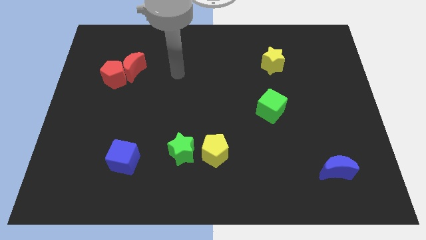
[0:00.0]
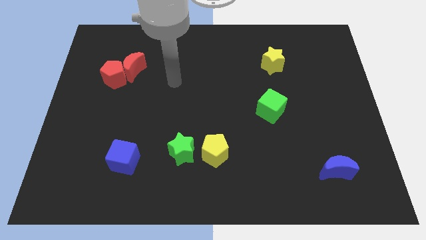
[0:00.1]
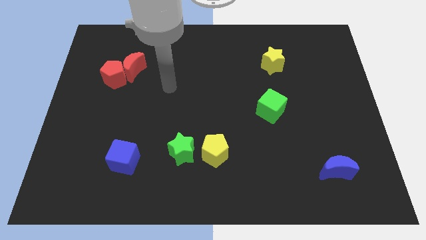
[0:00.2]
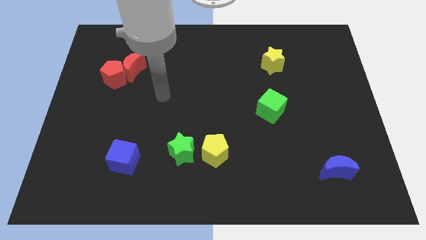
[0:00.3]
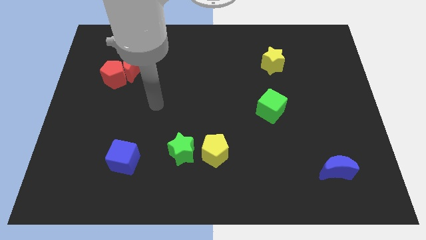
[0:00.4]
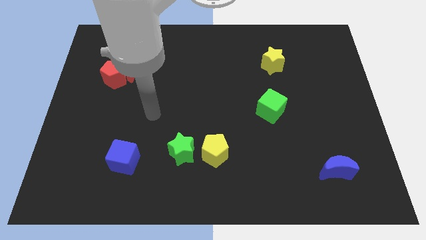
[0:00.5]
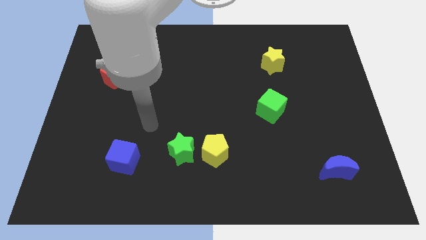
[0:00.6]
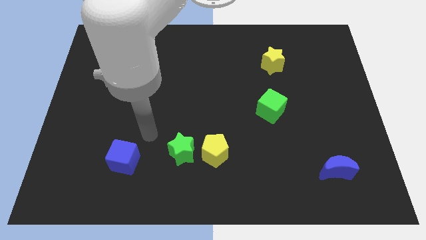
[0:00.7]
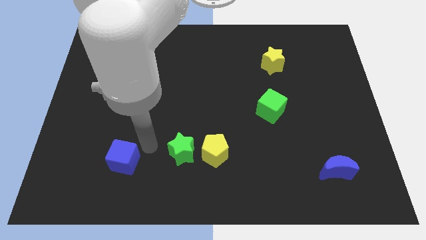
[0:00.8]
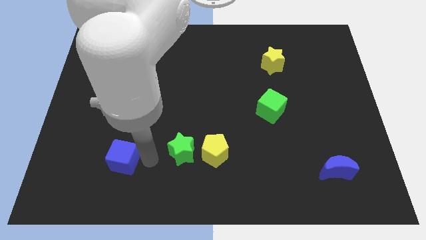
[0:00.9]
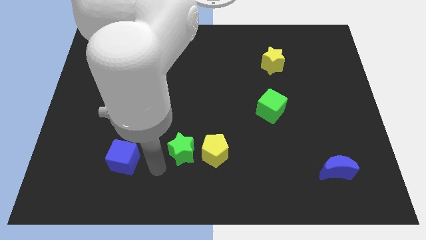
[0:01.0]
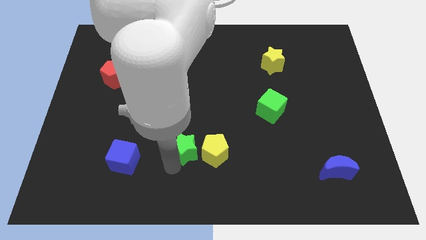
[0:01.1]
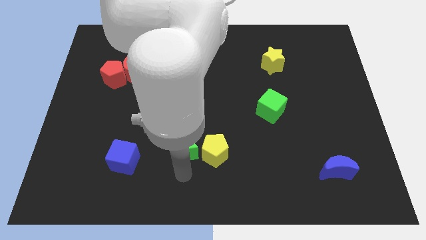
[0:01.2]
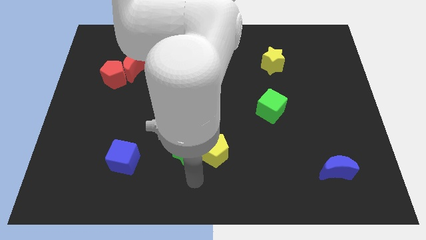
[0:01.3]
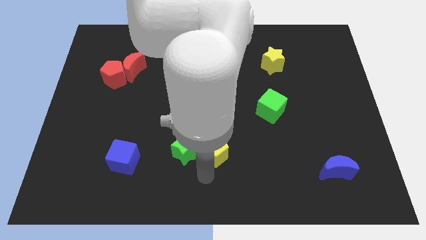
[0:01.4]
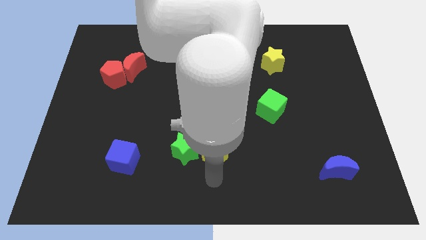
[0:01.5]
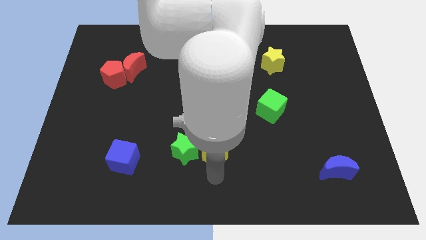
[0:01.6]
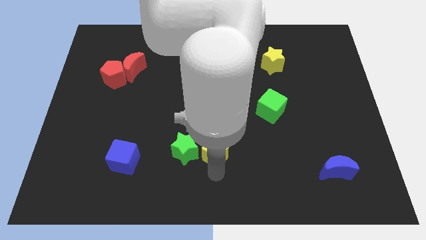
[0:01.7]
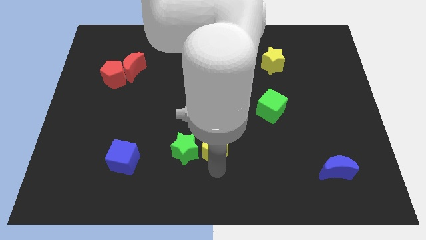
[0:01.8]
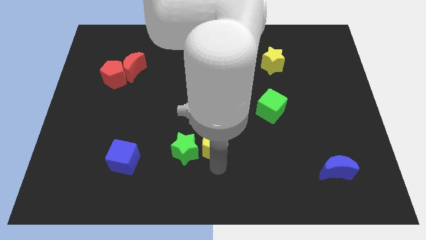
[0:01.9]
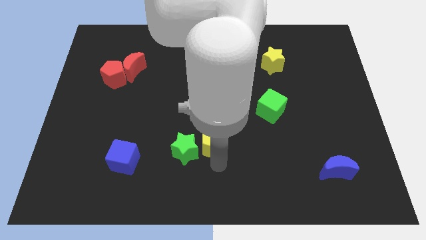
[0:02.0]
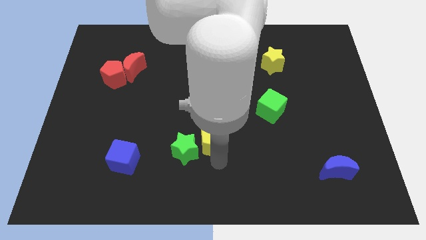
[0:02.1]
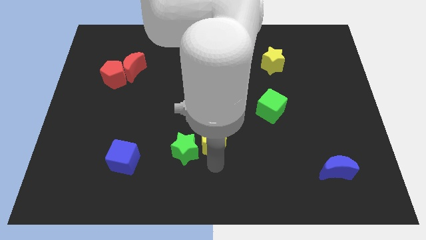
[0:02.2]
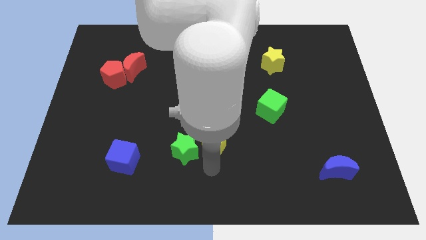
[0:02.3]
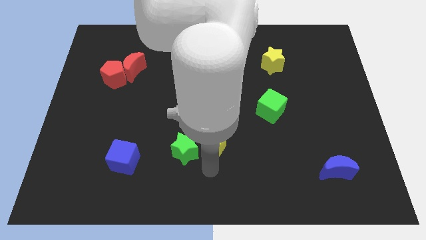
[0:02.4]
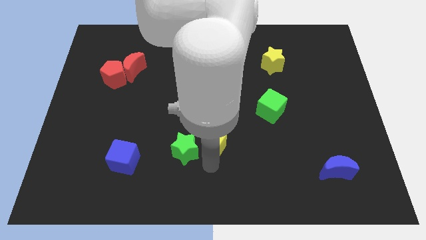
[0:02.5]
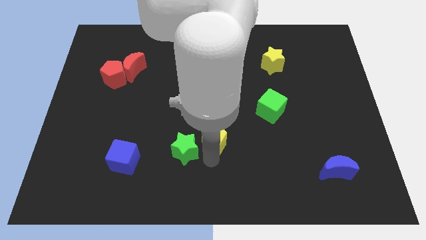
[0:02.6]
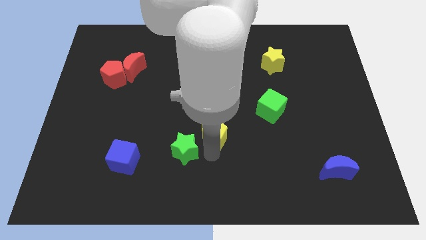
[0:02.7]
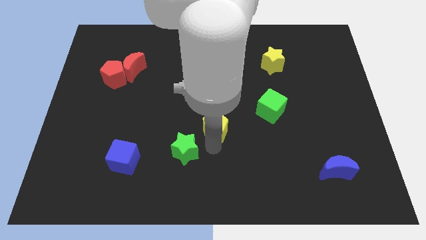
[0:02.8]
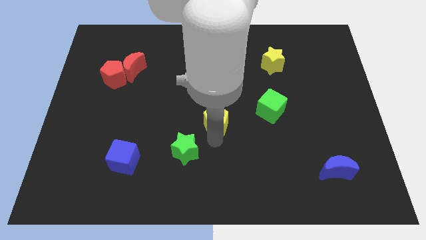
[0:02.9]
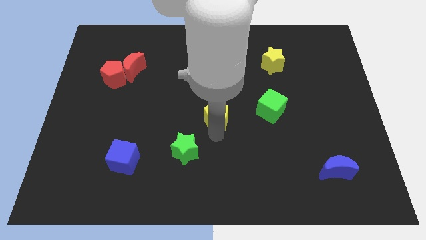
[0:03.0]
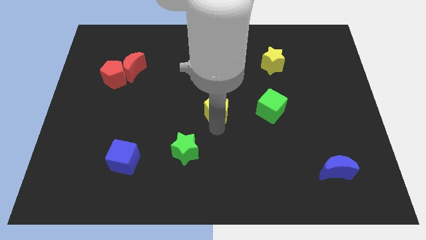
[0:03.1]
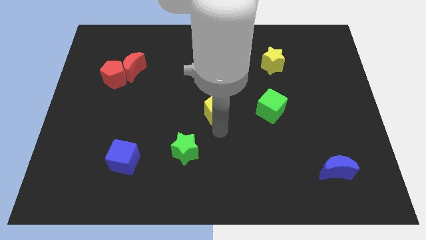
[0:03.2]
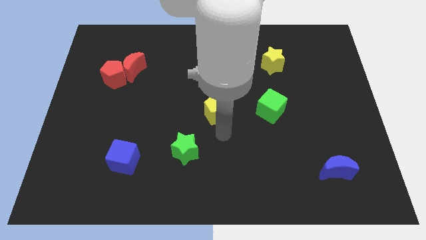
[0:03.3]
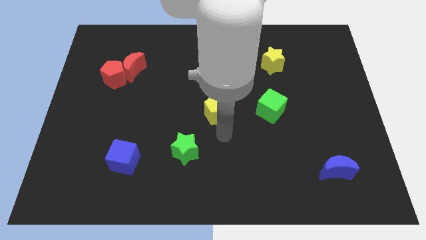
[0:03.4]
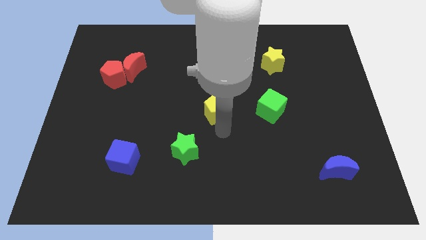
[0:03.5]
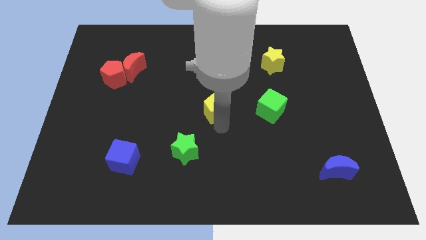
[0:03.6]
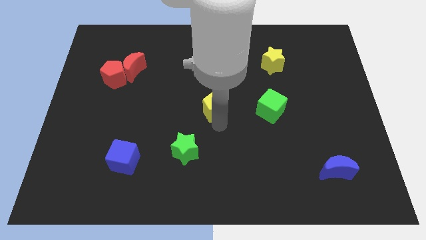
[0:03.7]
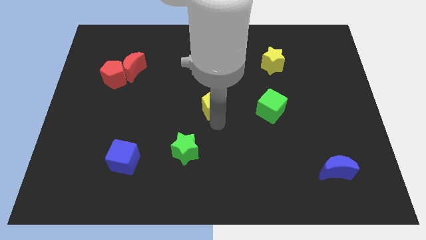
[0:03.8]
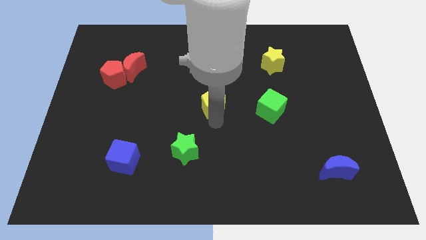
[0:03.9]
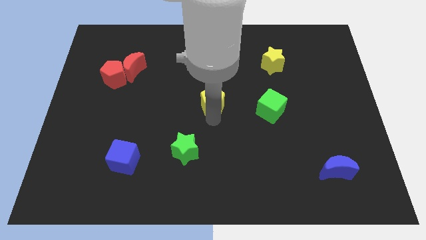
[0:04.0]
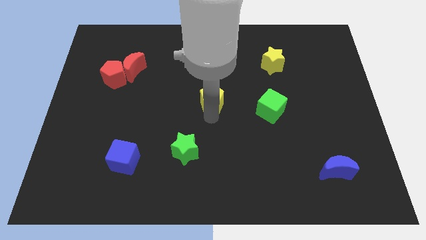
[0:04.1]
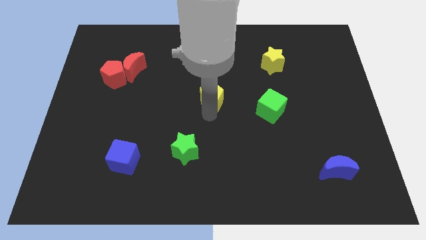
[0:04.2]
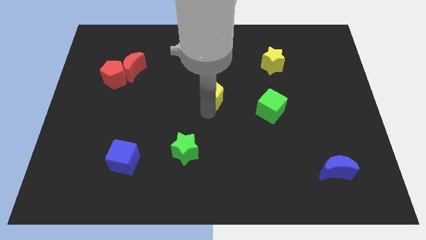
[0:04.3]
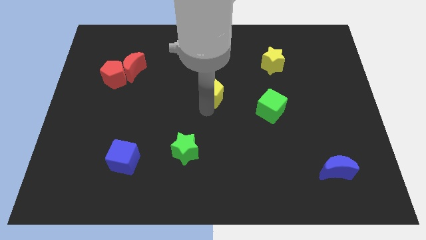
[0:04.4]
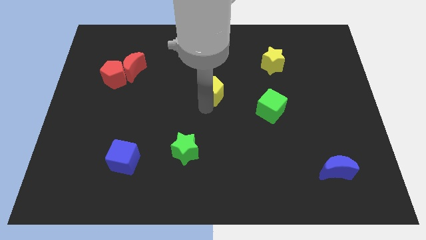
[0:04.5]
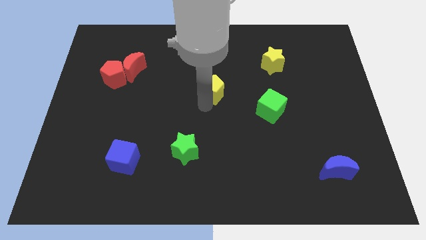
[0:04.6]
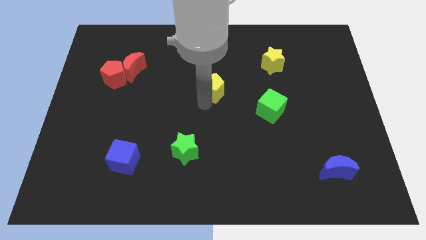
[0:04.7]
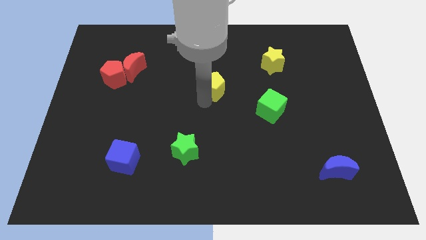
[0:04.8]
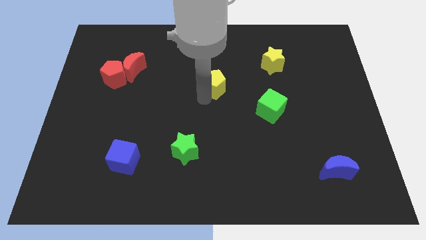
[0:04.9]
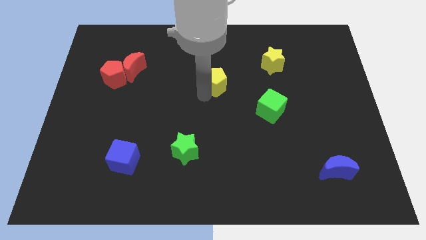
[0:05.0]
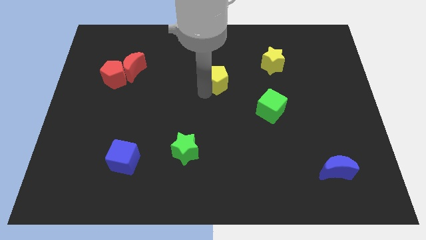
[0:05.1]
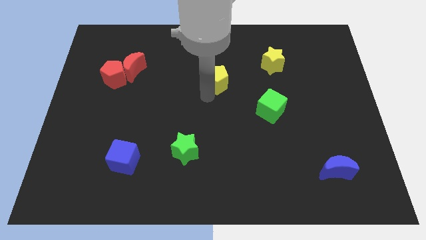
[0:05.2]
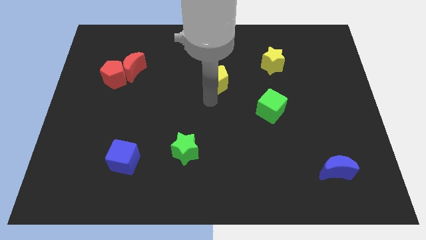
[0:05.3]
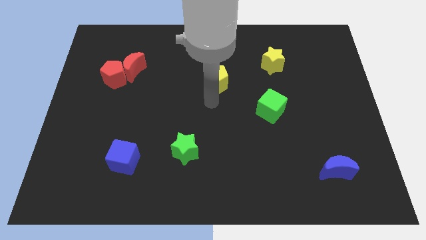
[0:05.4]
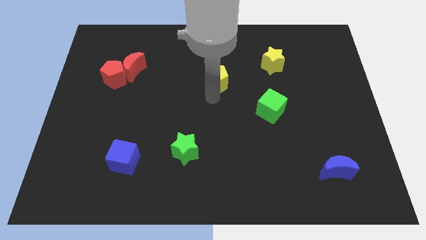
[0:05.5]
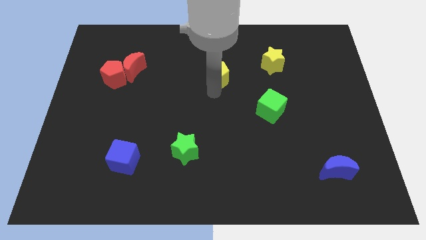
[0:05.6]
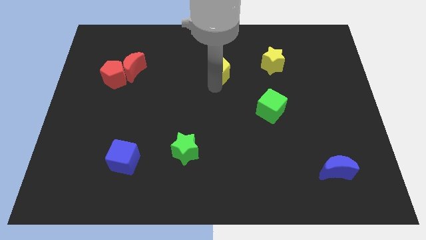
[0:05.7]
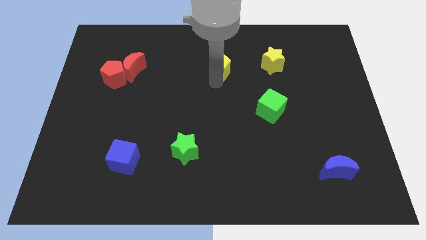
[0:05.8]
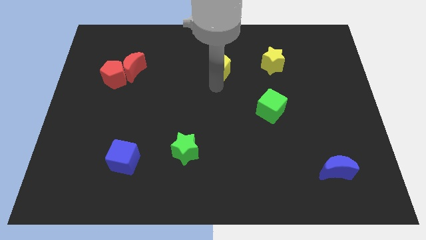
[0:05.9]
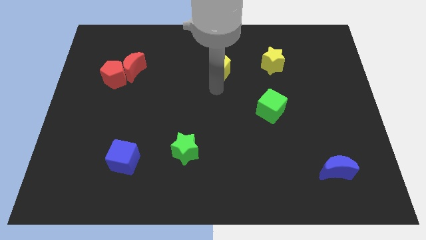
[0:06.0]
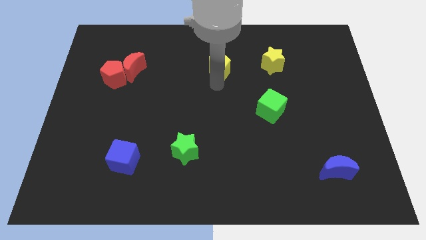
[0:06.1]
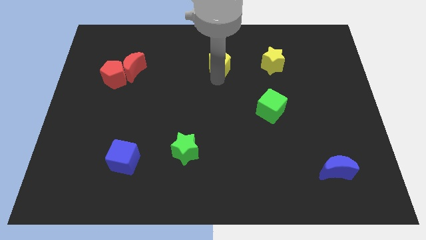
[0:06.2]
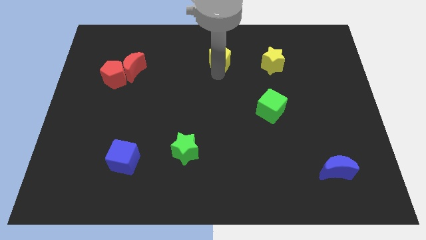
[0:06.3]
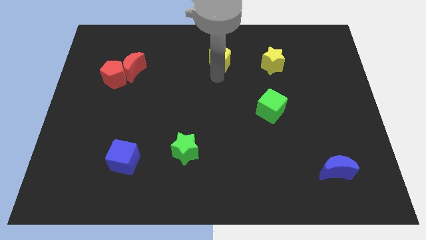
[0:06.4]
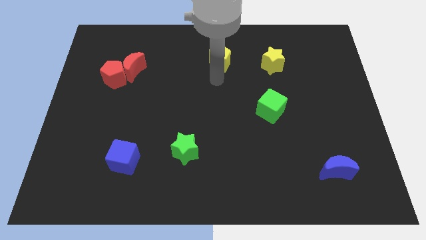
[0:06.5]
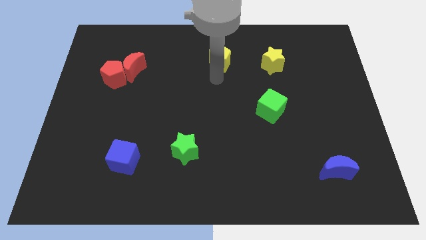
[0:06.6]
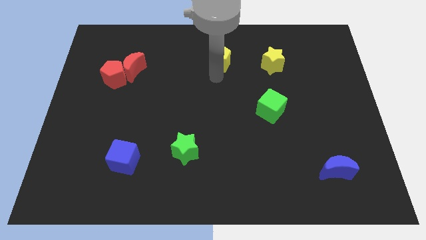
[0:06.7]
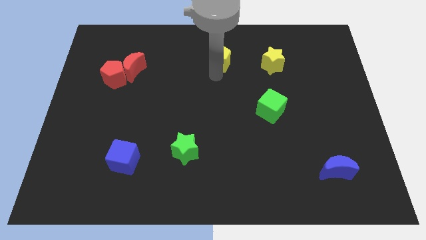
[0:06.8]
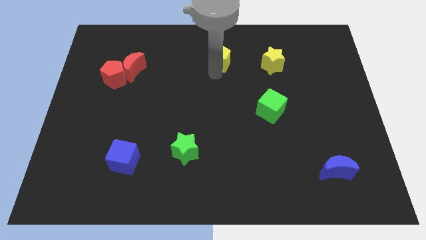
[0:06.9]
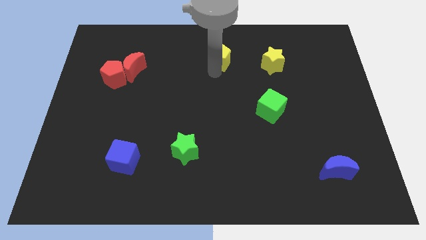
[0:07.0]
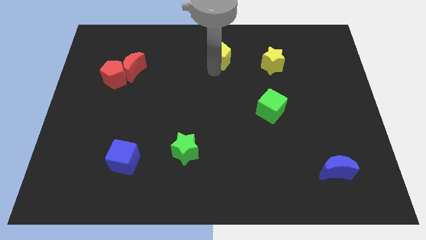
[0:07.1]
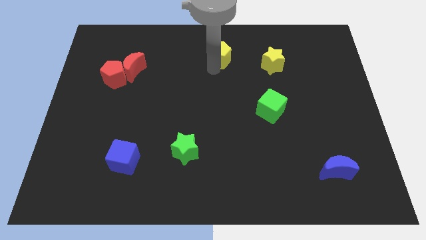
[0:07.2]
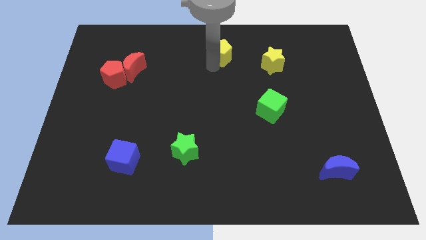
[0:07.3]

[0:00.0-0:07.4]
move the yellow pentagon to the towards your base
